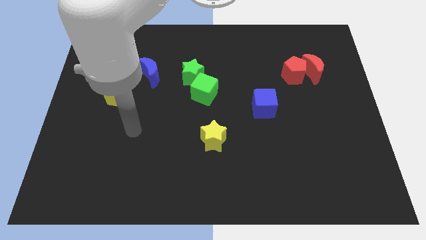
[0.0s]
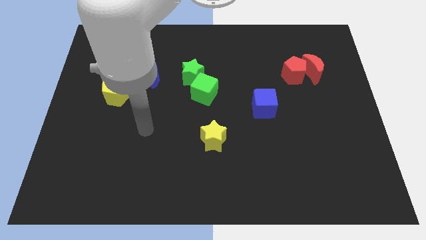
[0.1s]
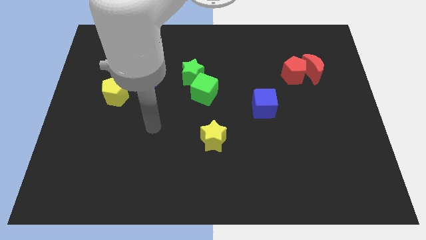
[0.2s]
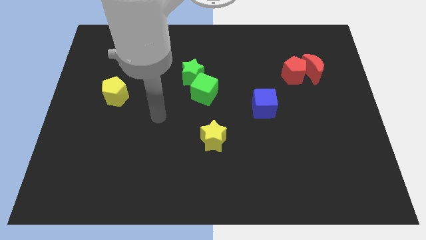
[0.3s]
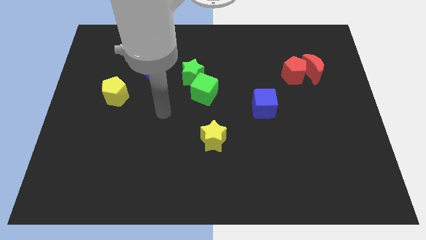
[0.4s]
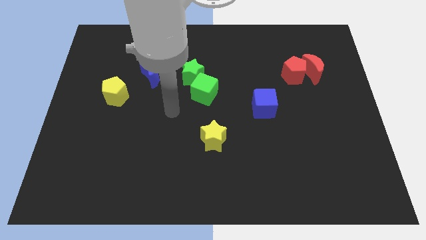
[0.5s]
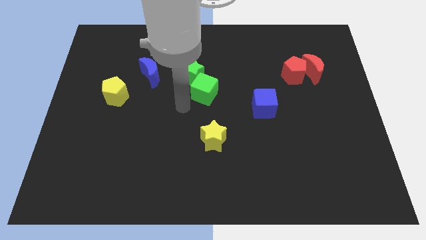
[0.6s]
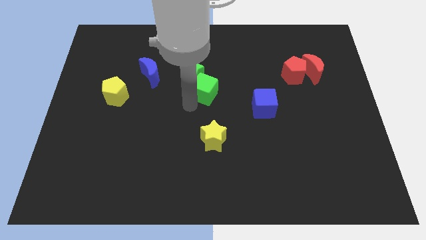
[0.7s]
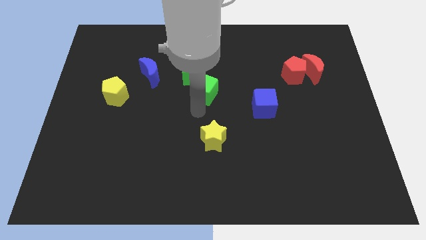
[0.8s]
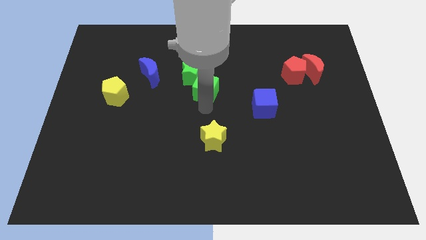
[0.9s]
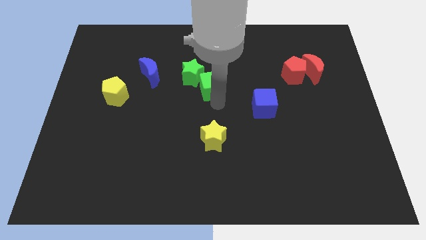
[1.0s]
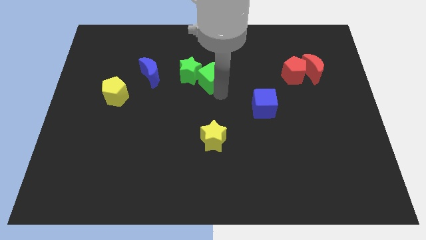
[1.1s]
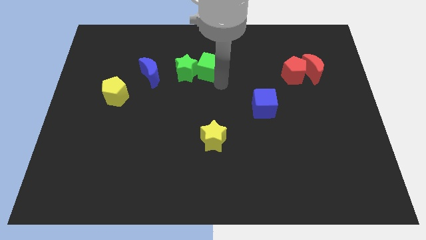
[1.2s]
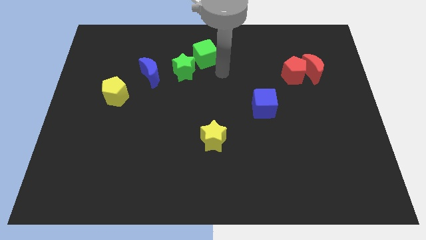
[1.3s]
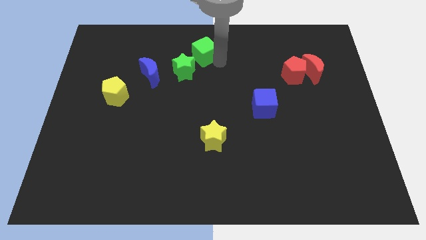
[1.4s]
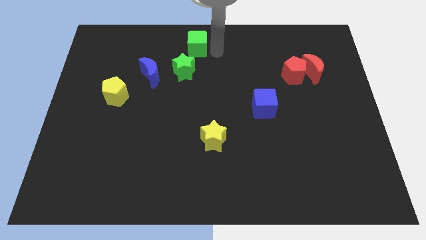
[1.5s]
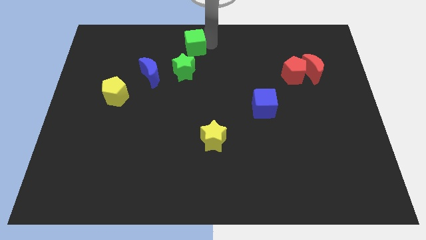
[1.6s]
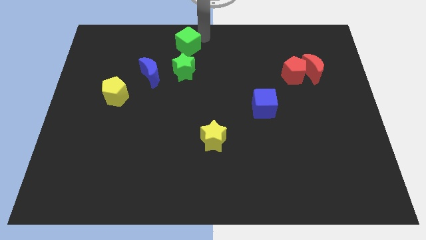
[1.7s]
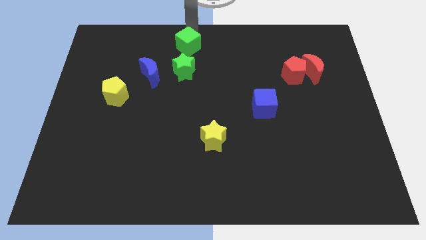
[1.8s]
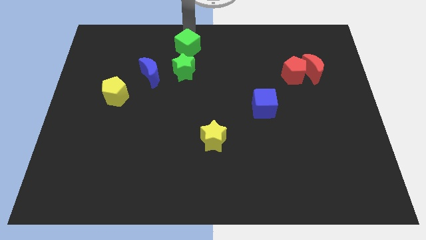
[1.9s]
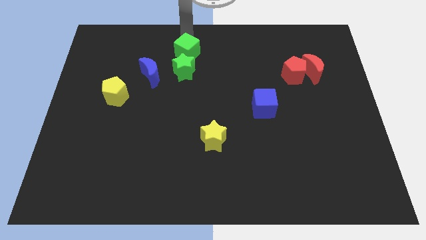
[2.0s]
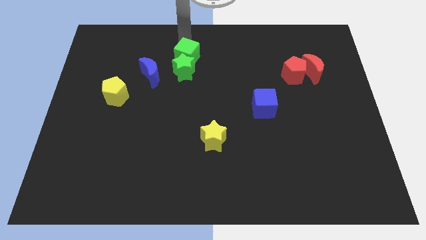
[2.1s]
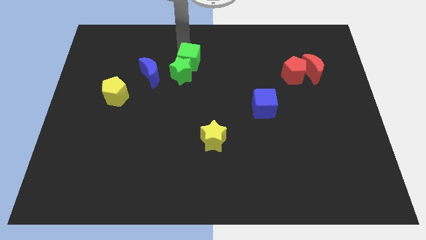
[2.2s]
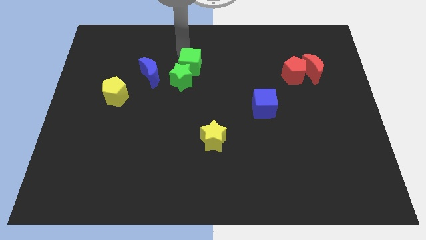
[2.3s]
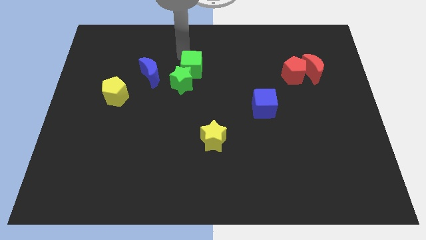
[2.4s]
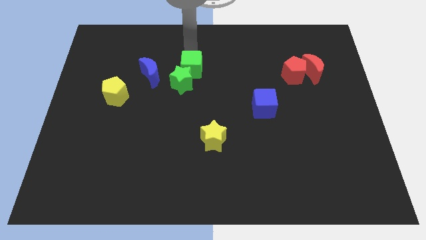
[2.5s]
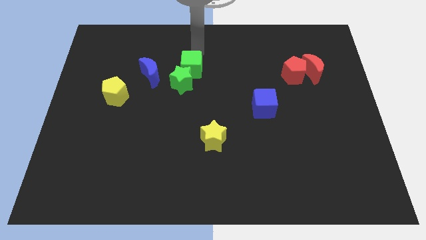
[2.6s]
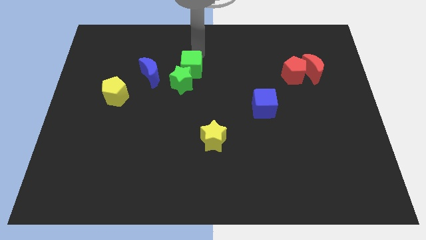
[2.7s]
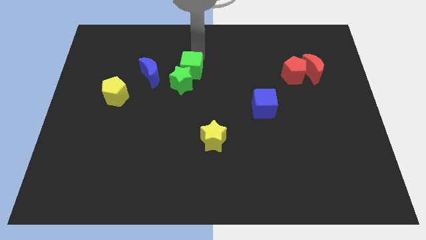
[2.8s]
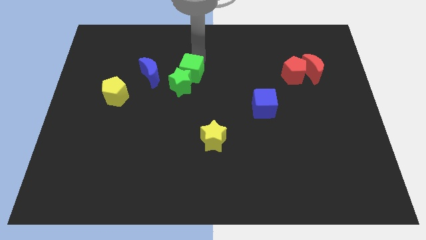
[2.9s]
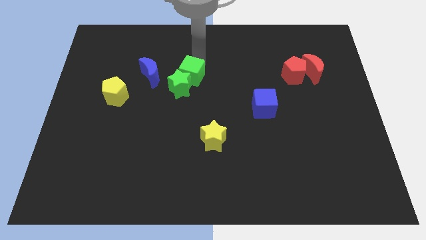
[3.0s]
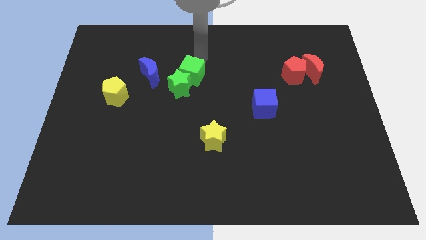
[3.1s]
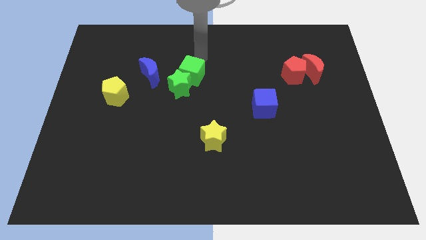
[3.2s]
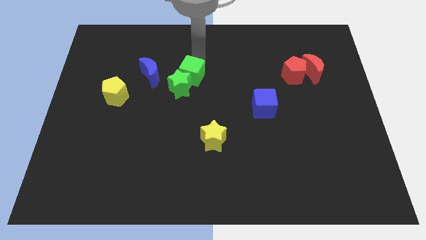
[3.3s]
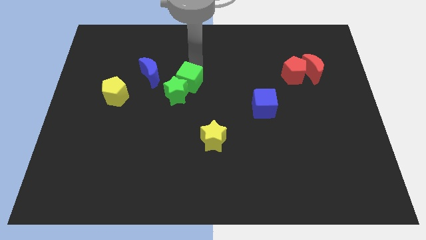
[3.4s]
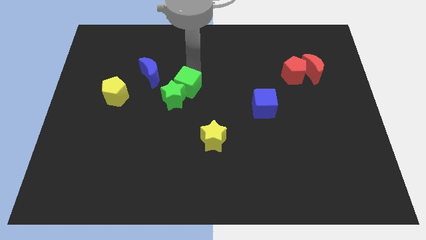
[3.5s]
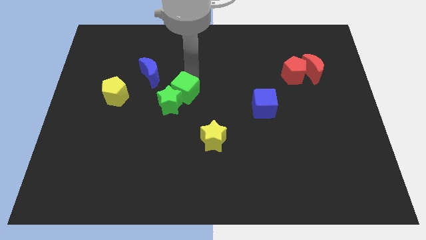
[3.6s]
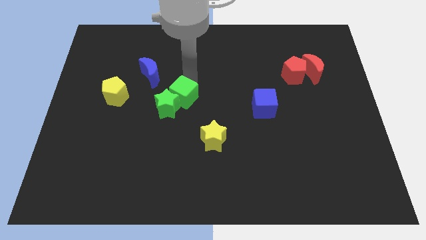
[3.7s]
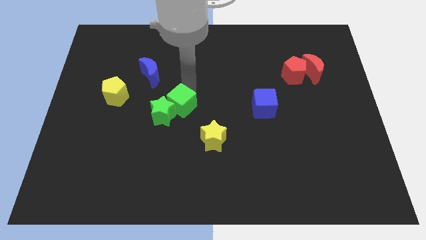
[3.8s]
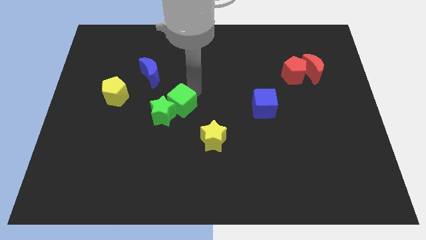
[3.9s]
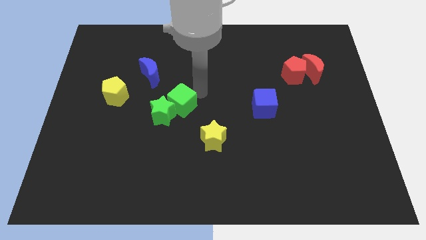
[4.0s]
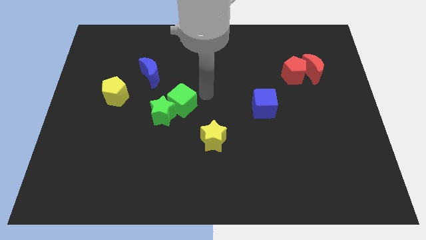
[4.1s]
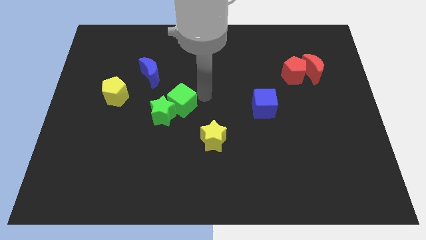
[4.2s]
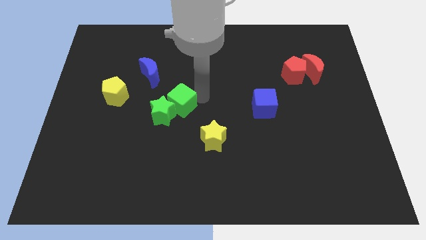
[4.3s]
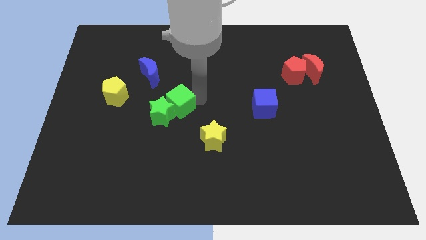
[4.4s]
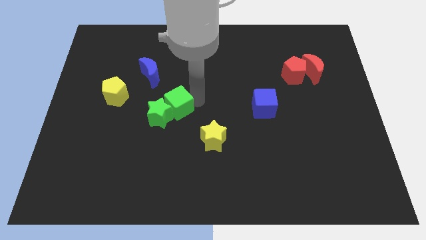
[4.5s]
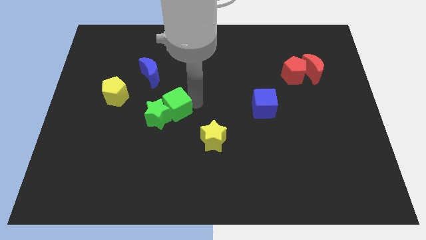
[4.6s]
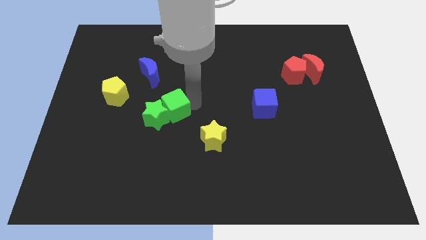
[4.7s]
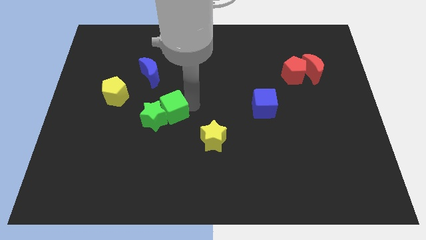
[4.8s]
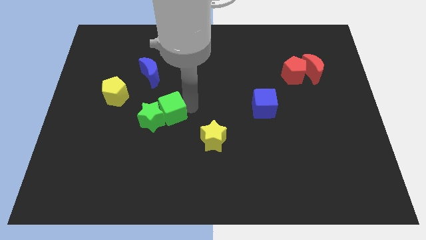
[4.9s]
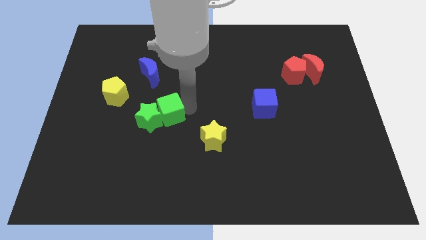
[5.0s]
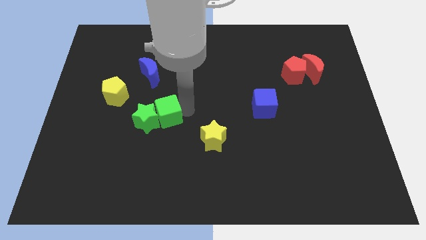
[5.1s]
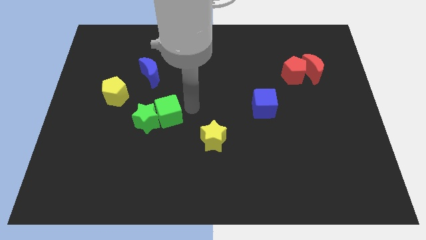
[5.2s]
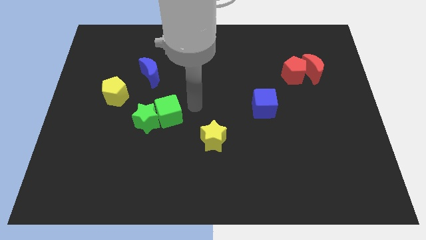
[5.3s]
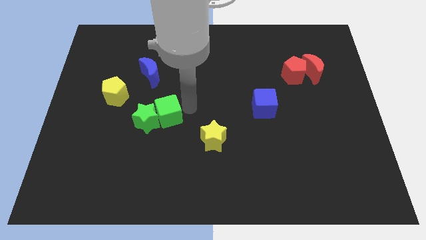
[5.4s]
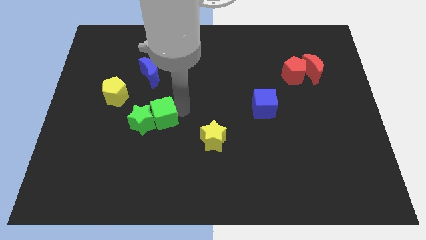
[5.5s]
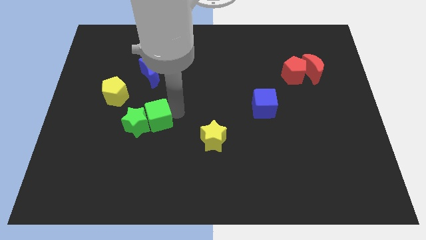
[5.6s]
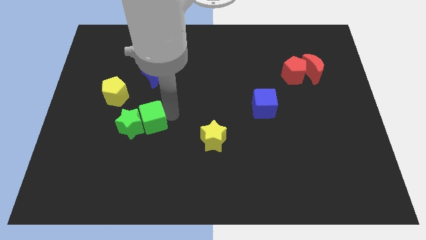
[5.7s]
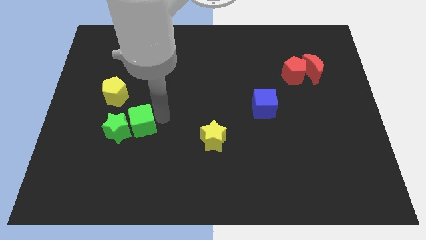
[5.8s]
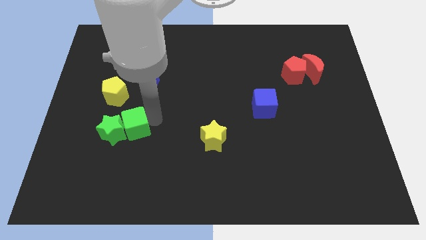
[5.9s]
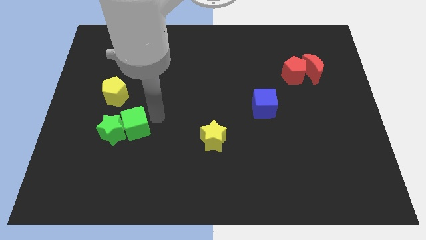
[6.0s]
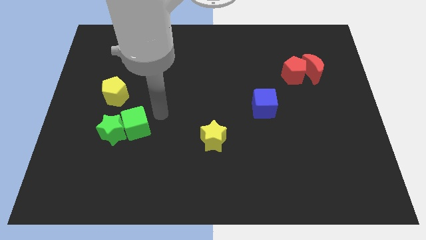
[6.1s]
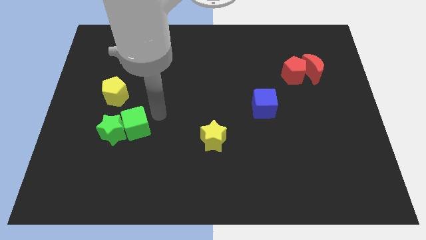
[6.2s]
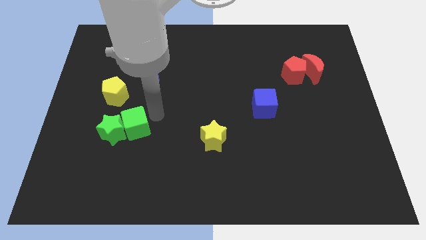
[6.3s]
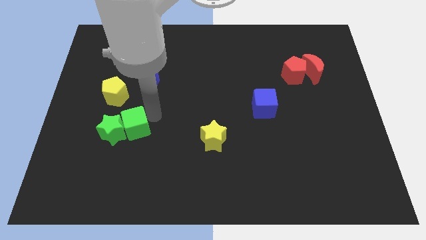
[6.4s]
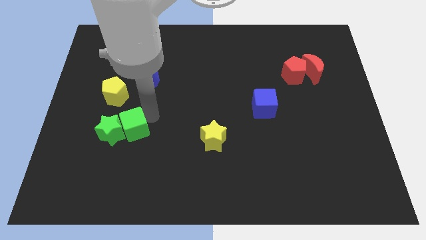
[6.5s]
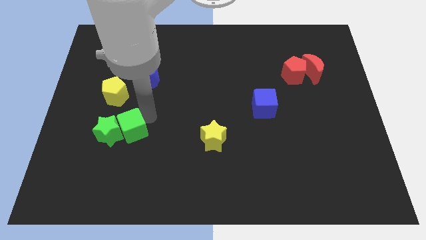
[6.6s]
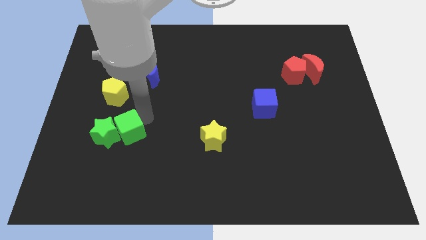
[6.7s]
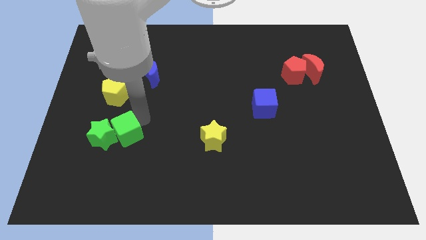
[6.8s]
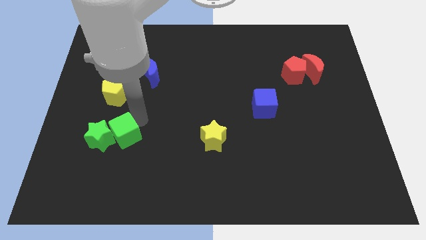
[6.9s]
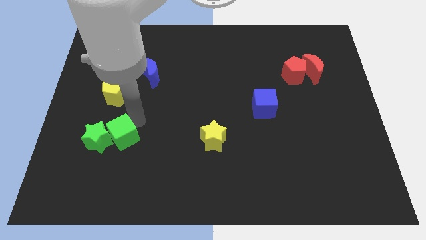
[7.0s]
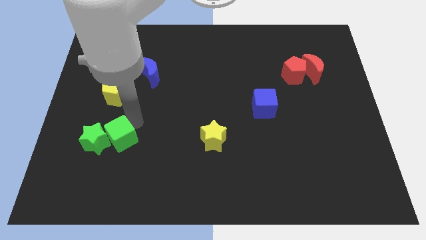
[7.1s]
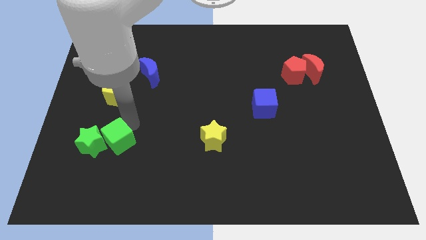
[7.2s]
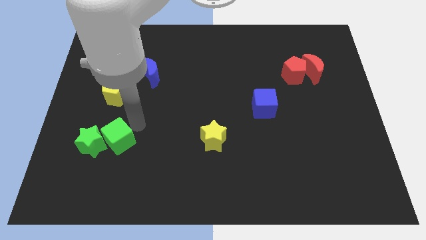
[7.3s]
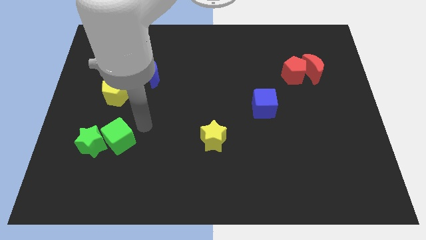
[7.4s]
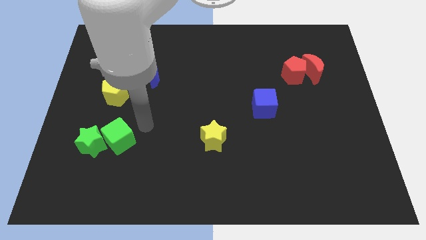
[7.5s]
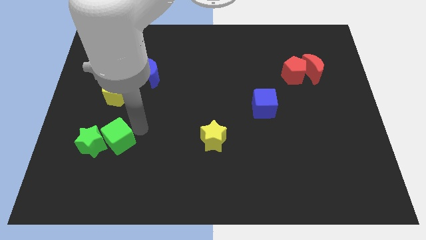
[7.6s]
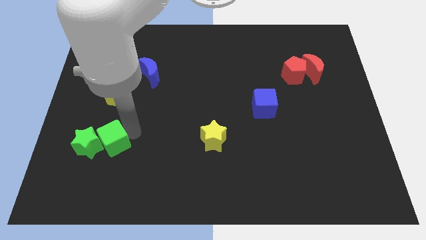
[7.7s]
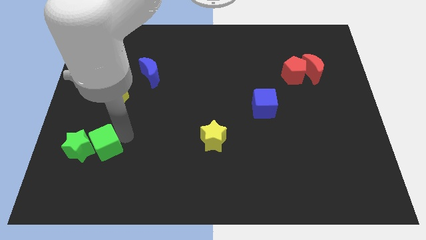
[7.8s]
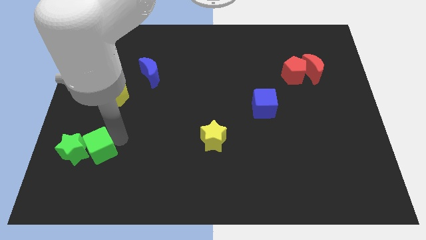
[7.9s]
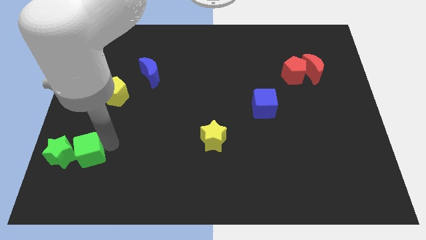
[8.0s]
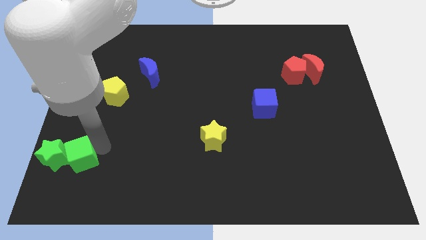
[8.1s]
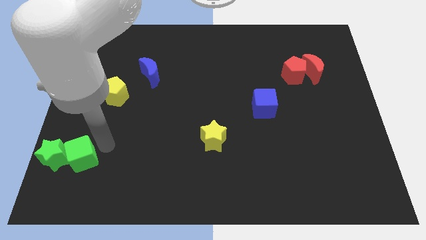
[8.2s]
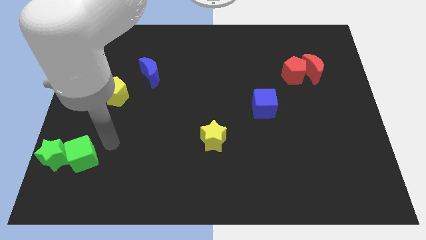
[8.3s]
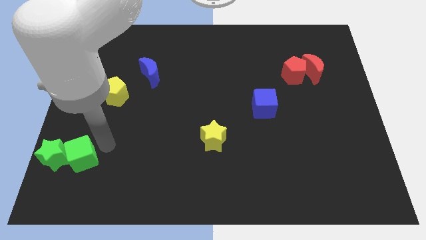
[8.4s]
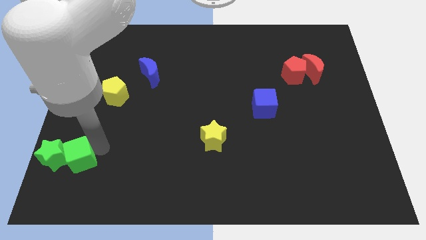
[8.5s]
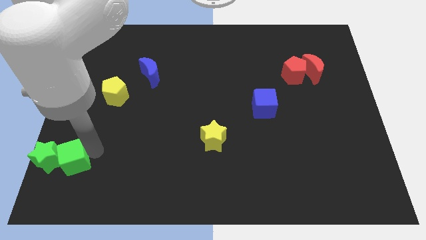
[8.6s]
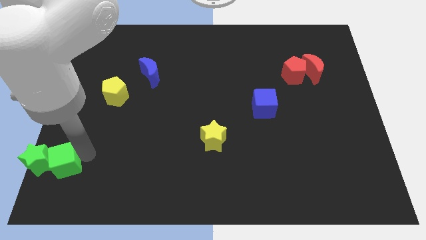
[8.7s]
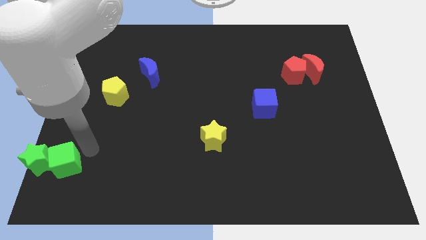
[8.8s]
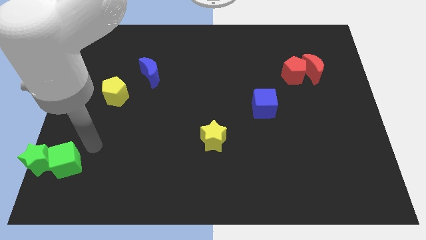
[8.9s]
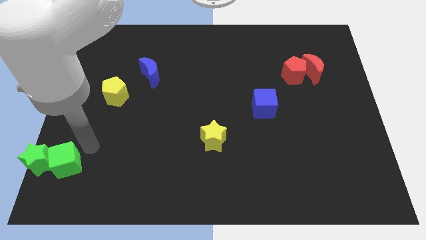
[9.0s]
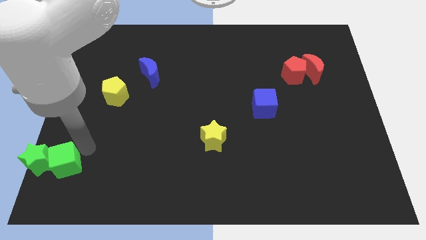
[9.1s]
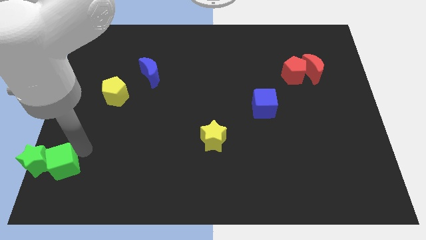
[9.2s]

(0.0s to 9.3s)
push the green cube to the bottom left corner
